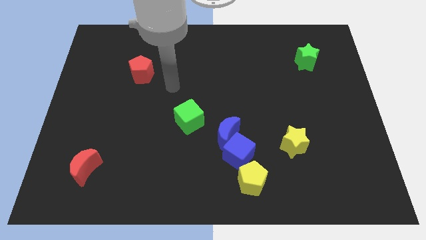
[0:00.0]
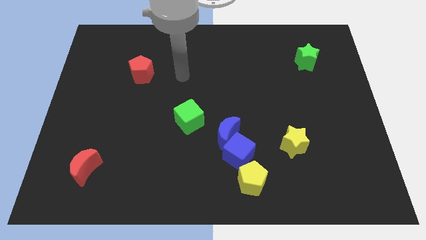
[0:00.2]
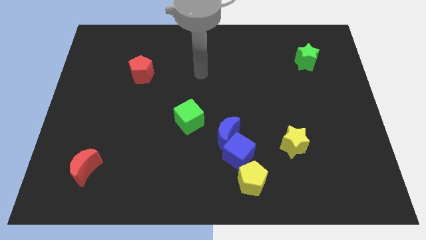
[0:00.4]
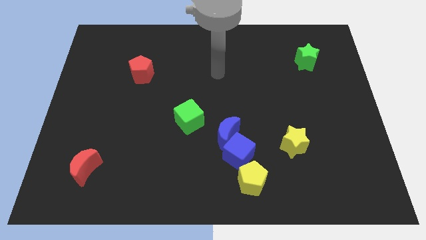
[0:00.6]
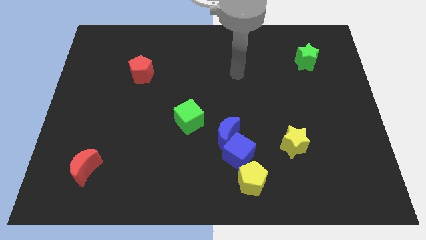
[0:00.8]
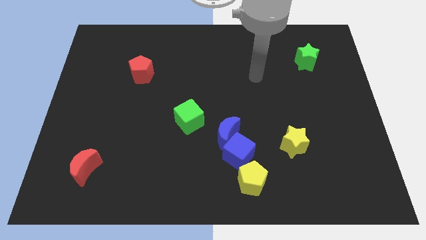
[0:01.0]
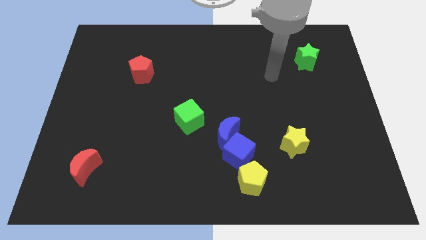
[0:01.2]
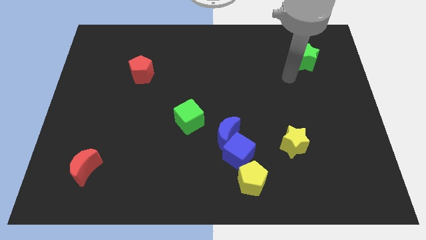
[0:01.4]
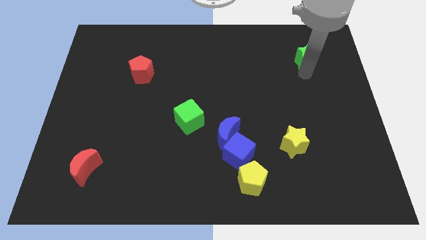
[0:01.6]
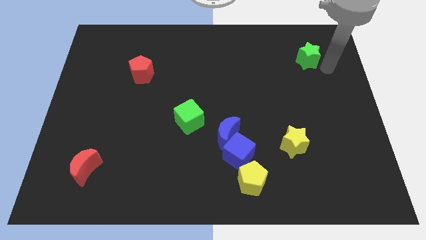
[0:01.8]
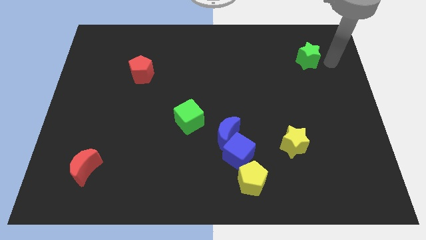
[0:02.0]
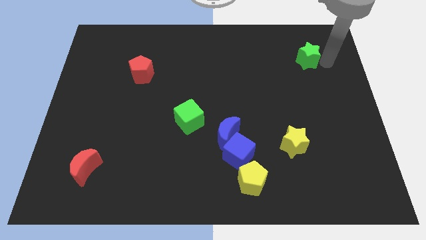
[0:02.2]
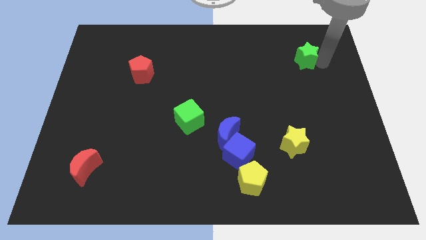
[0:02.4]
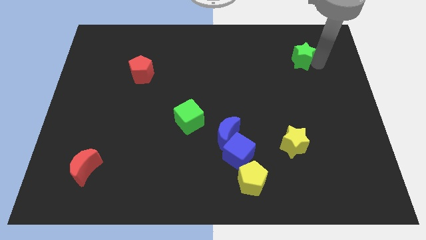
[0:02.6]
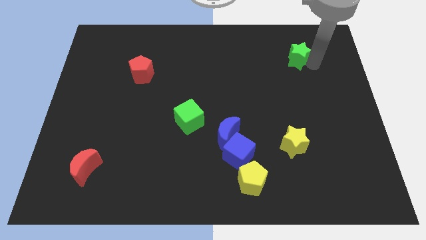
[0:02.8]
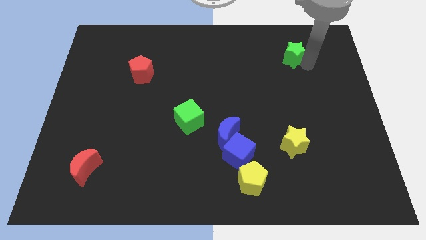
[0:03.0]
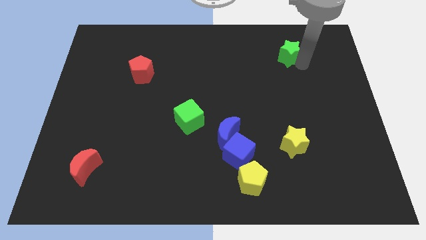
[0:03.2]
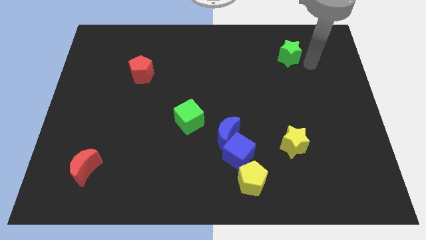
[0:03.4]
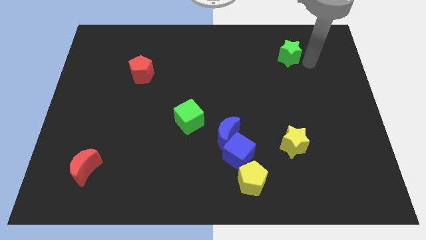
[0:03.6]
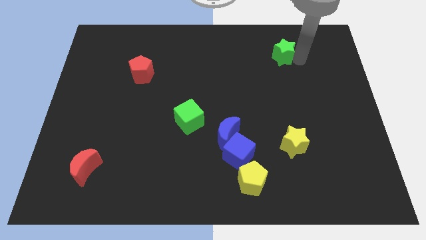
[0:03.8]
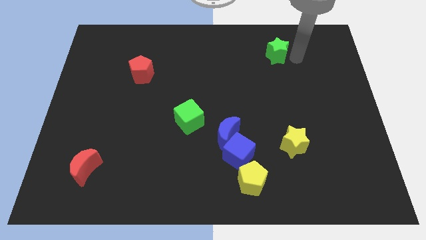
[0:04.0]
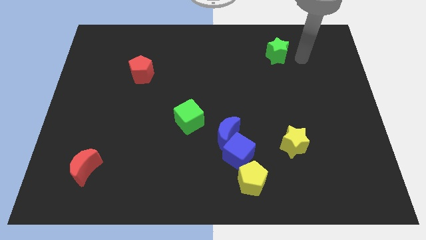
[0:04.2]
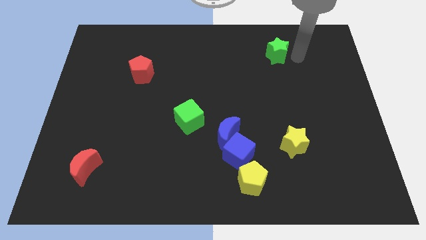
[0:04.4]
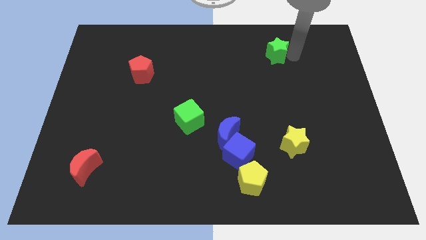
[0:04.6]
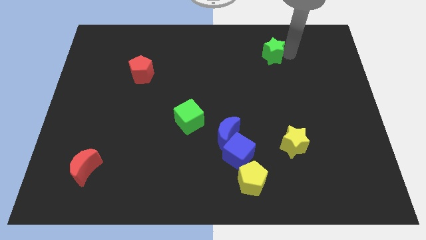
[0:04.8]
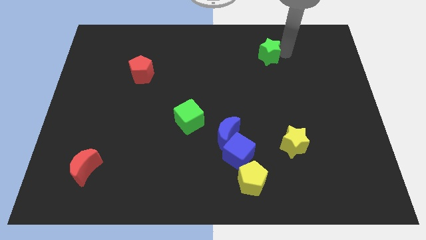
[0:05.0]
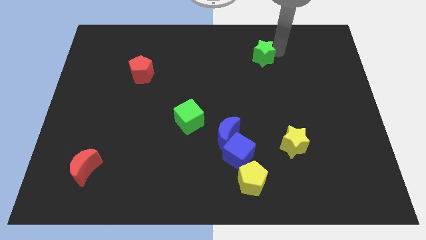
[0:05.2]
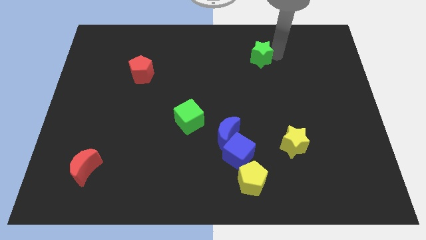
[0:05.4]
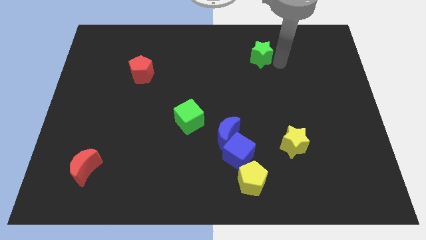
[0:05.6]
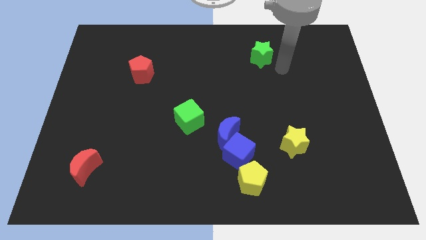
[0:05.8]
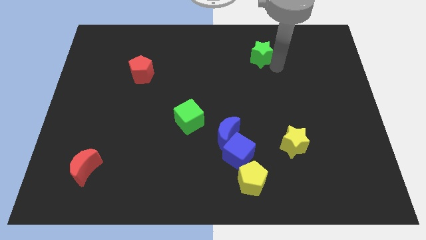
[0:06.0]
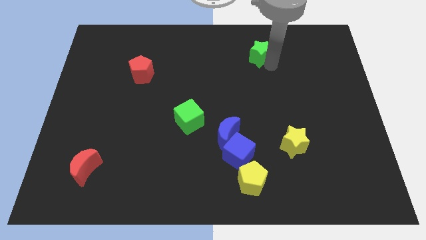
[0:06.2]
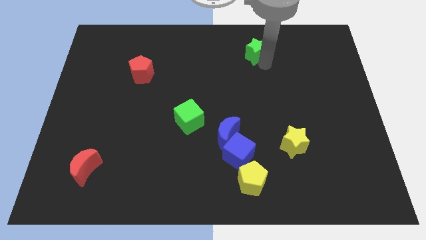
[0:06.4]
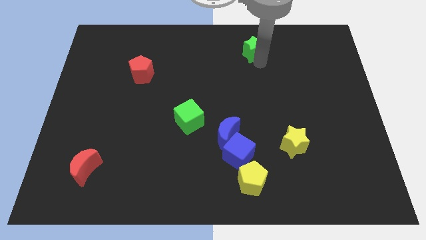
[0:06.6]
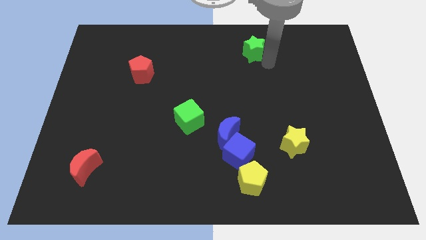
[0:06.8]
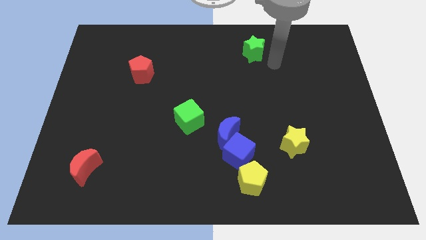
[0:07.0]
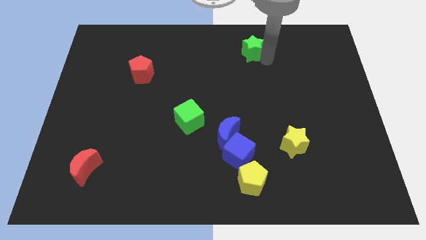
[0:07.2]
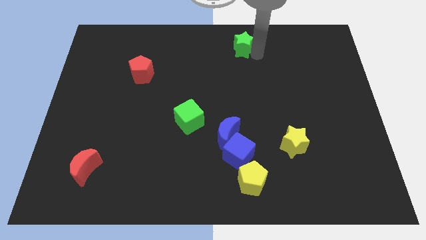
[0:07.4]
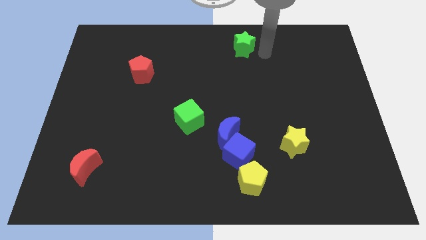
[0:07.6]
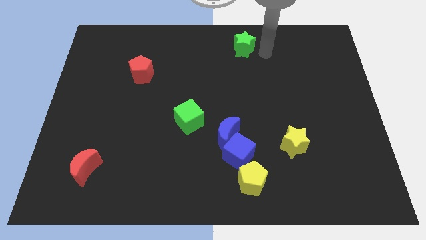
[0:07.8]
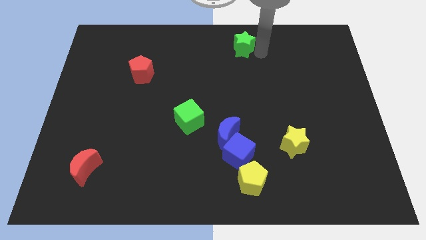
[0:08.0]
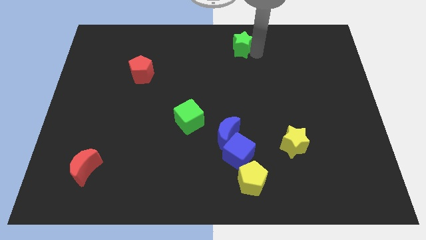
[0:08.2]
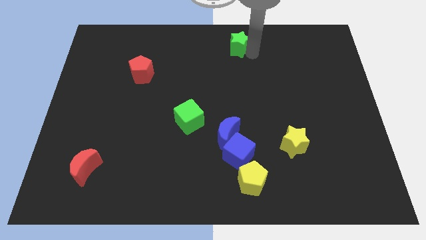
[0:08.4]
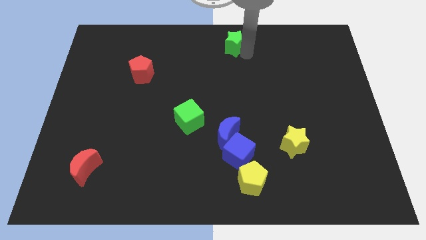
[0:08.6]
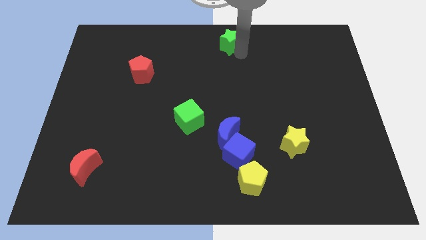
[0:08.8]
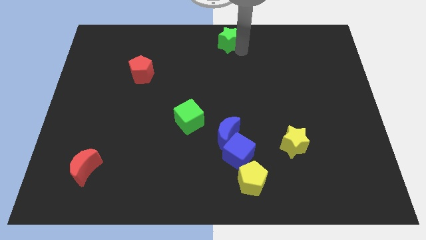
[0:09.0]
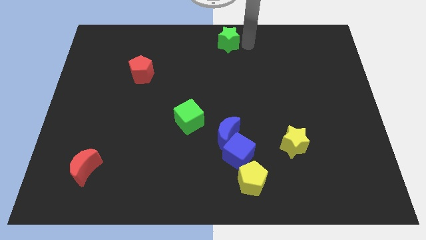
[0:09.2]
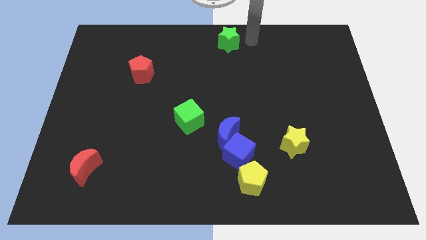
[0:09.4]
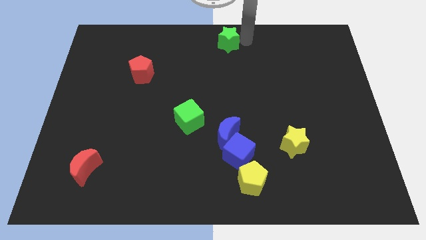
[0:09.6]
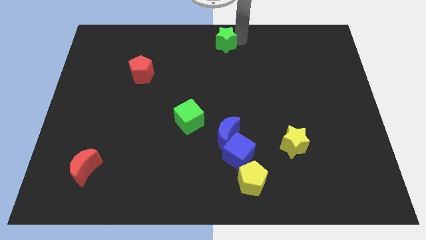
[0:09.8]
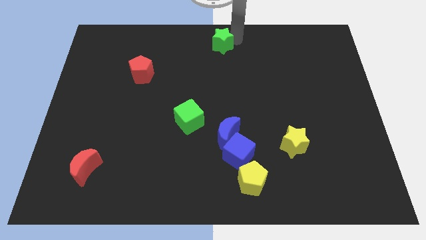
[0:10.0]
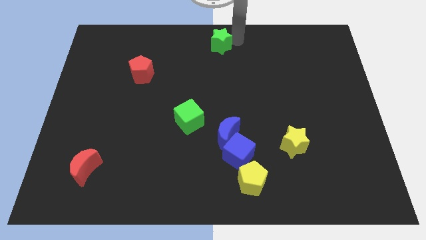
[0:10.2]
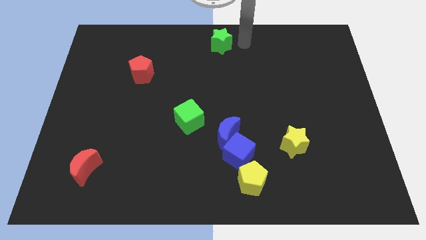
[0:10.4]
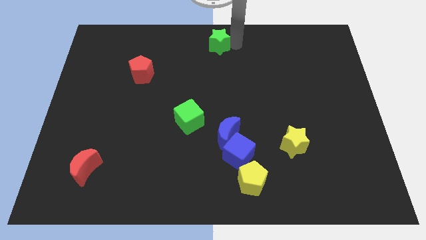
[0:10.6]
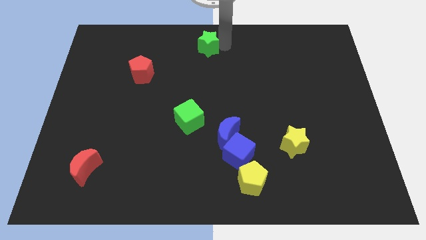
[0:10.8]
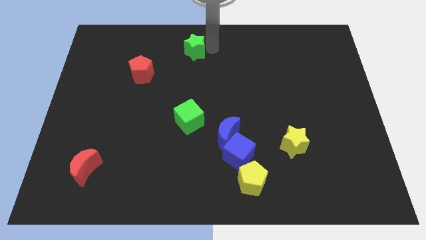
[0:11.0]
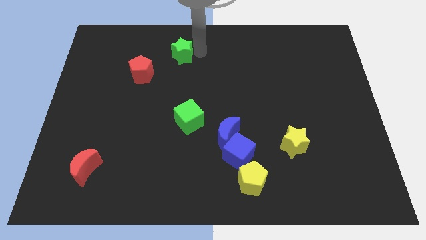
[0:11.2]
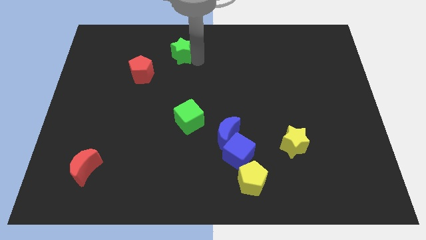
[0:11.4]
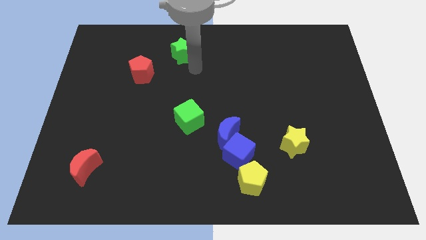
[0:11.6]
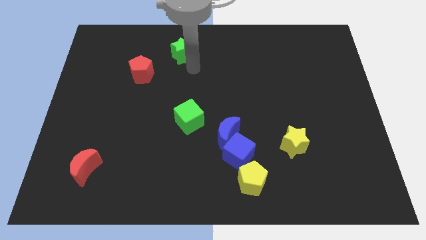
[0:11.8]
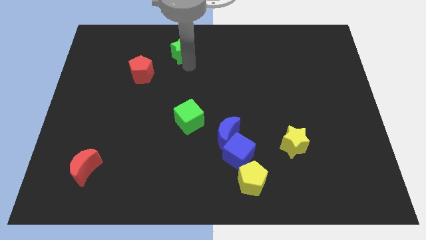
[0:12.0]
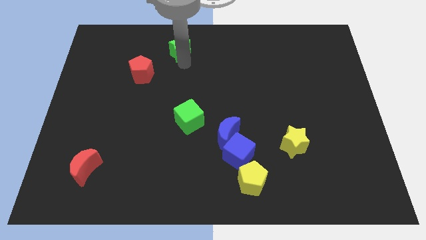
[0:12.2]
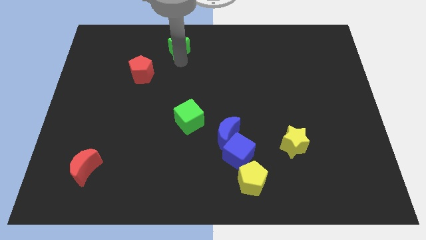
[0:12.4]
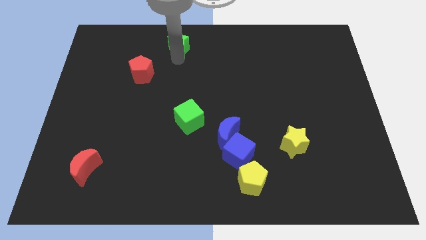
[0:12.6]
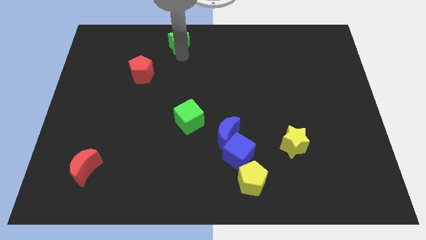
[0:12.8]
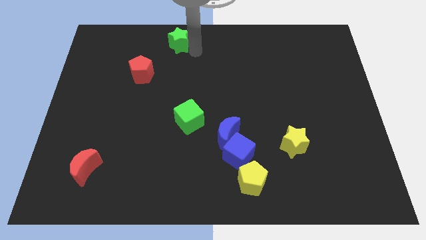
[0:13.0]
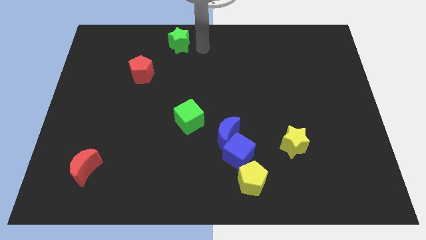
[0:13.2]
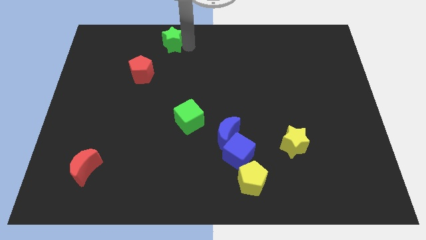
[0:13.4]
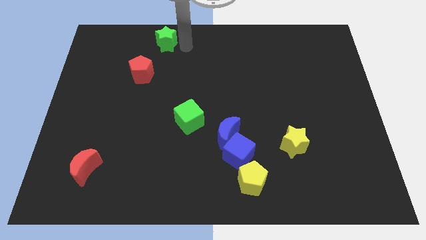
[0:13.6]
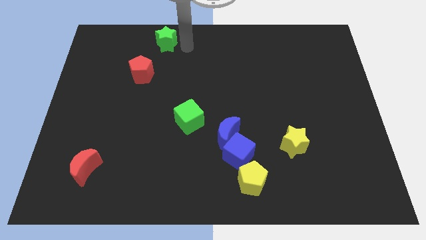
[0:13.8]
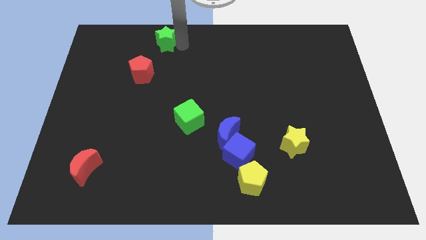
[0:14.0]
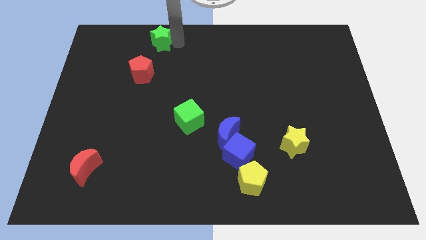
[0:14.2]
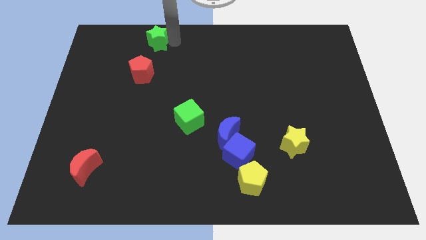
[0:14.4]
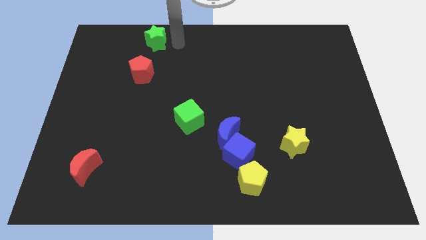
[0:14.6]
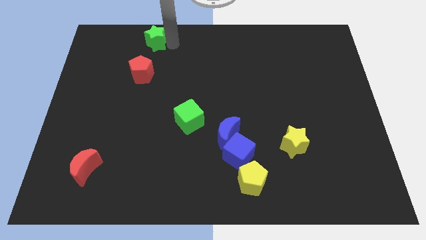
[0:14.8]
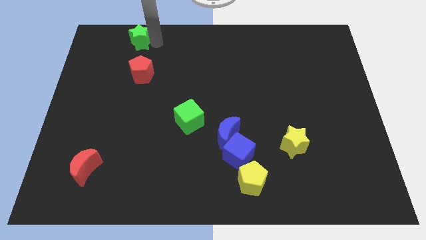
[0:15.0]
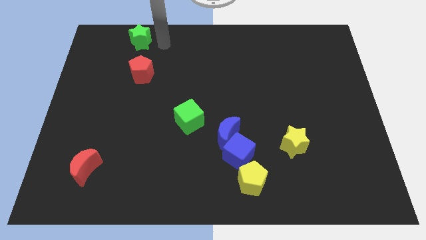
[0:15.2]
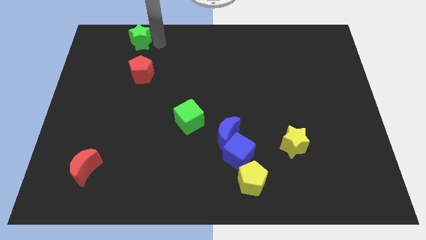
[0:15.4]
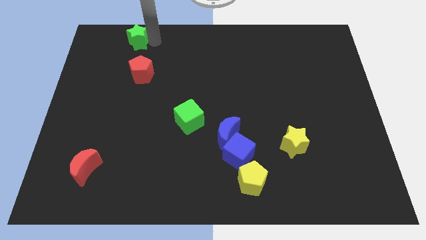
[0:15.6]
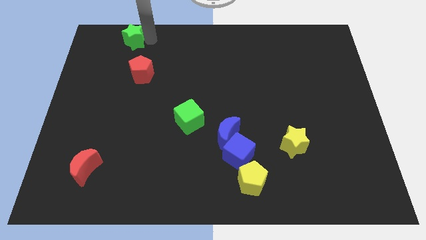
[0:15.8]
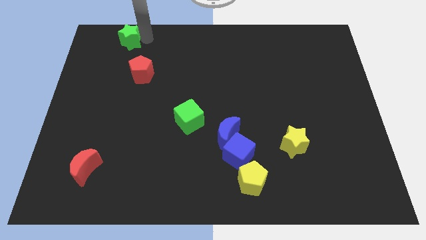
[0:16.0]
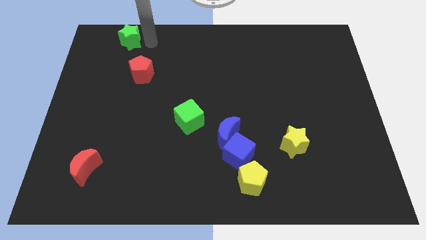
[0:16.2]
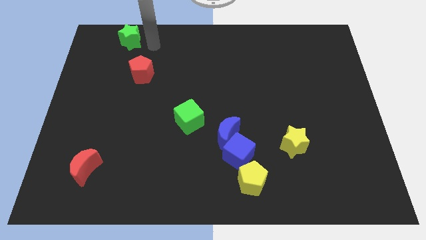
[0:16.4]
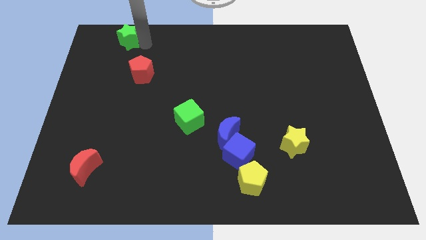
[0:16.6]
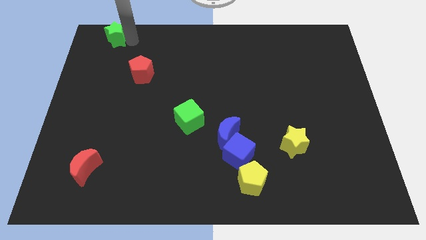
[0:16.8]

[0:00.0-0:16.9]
slide the green star to the upper left corner
